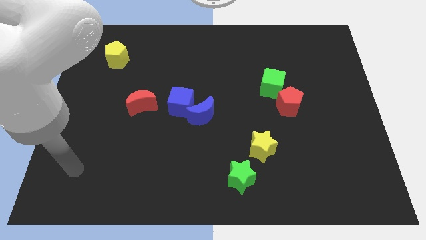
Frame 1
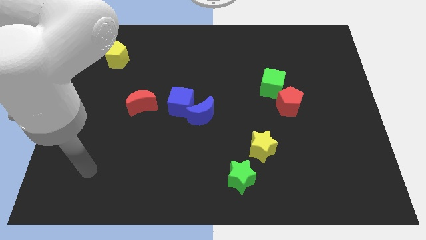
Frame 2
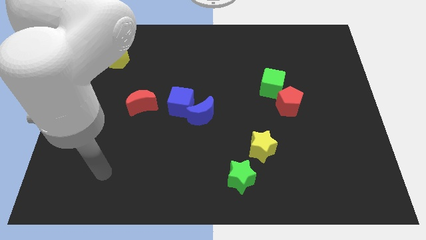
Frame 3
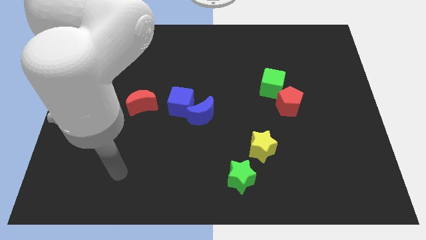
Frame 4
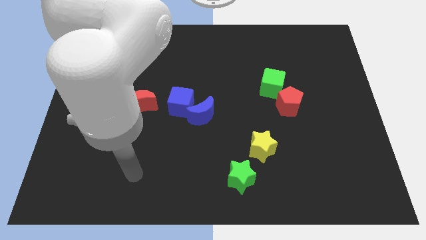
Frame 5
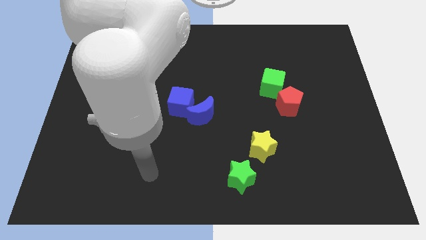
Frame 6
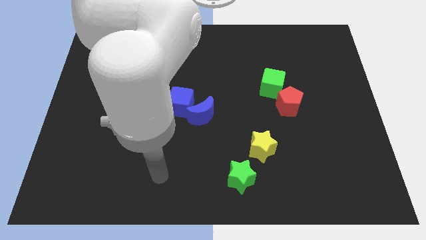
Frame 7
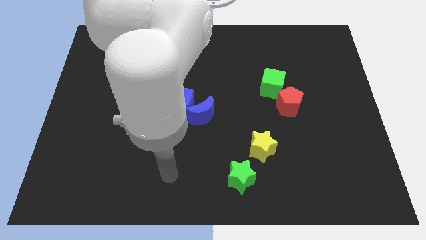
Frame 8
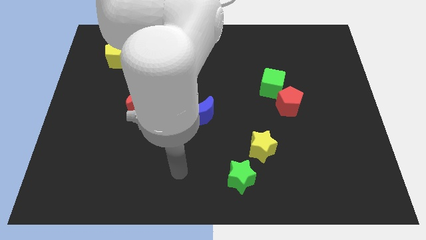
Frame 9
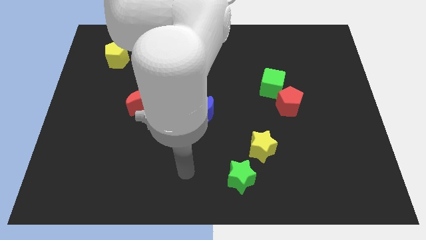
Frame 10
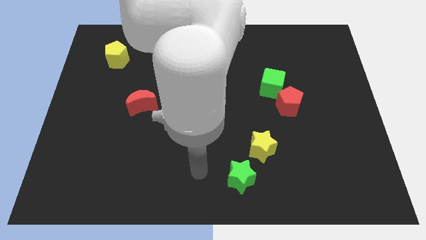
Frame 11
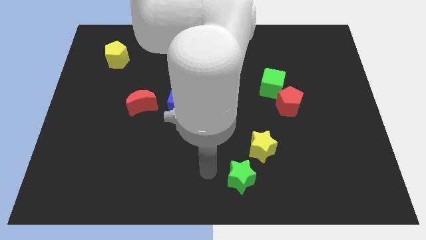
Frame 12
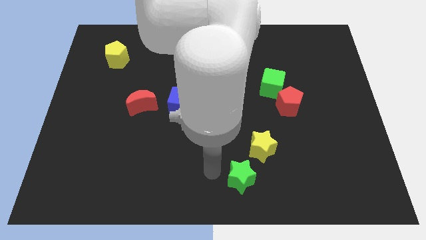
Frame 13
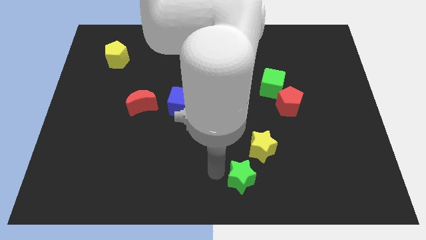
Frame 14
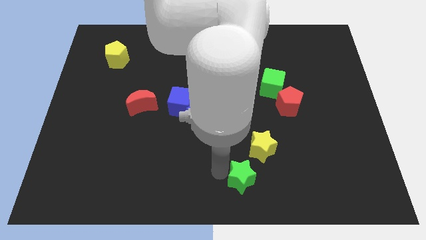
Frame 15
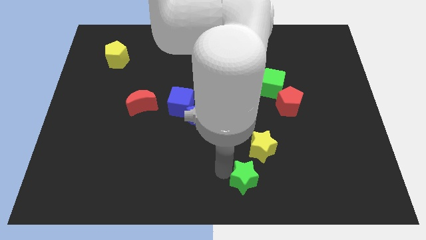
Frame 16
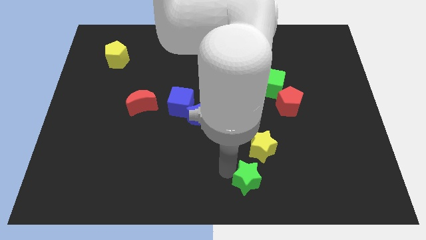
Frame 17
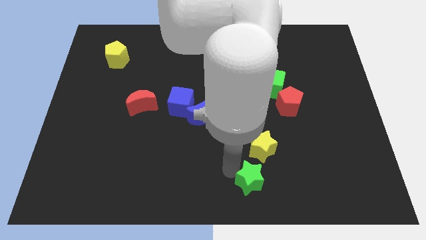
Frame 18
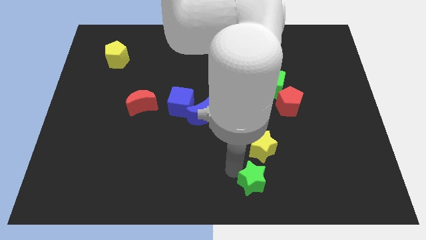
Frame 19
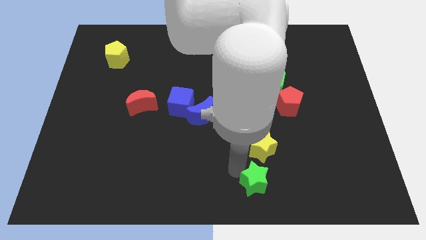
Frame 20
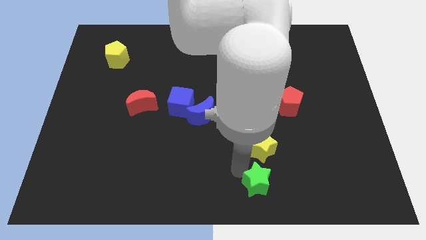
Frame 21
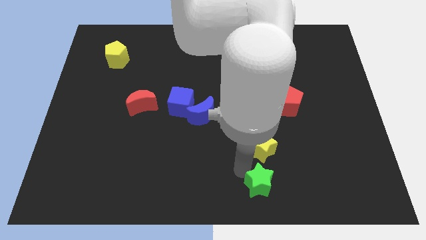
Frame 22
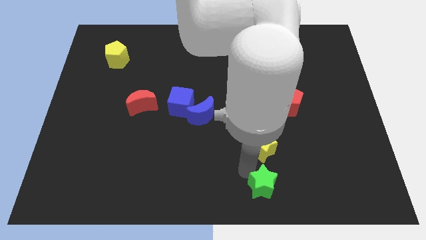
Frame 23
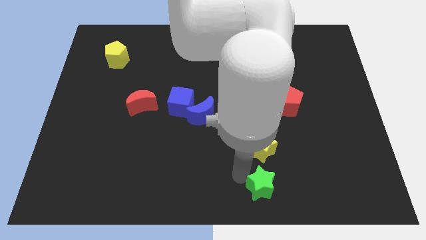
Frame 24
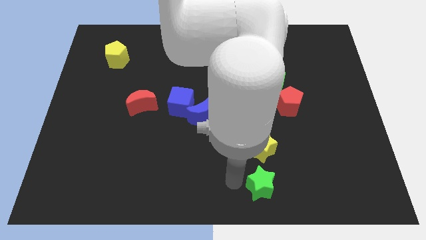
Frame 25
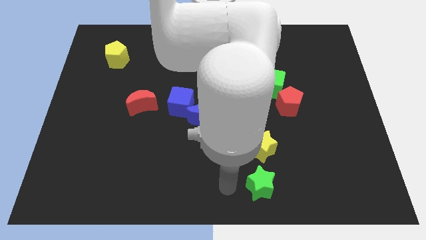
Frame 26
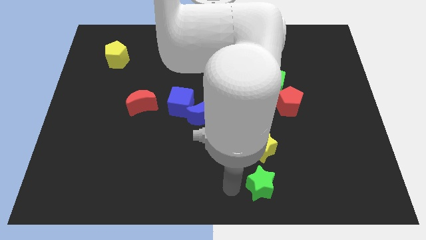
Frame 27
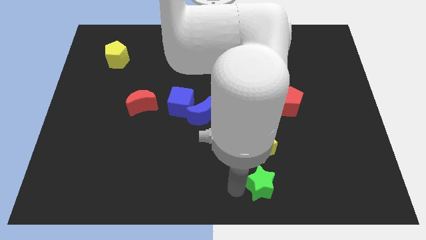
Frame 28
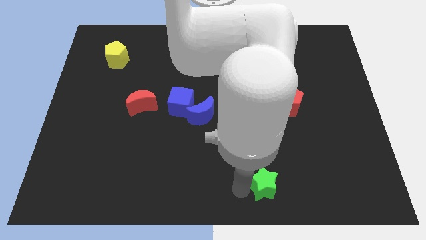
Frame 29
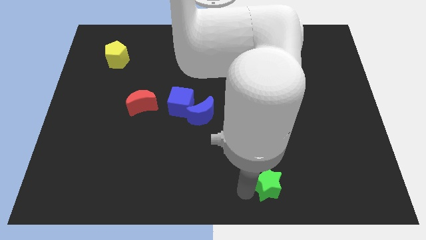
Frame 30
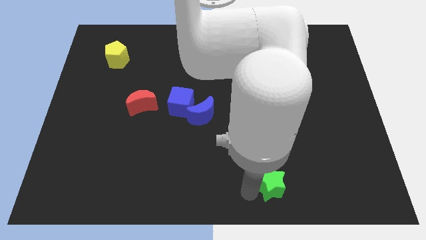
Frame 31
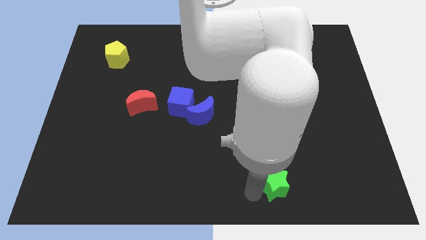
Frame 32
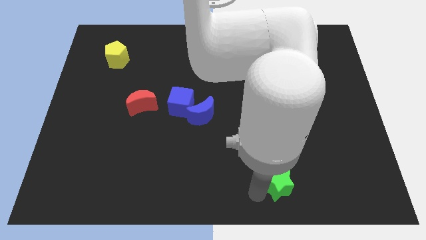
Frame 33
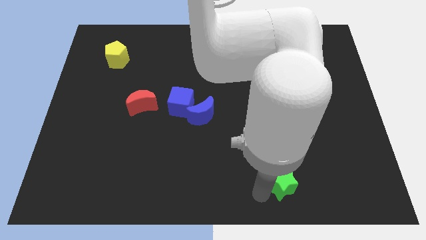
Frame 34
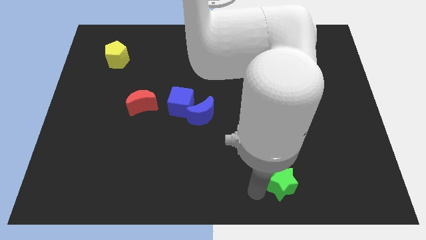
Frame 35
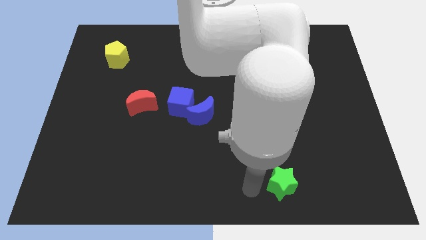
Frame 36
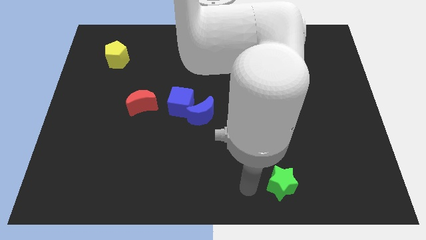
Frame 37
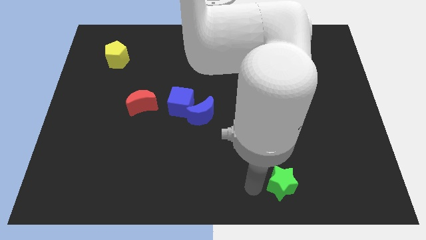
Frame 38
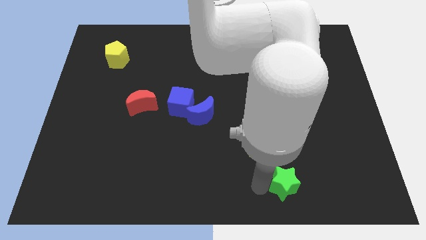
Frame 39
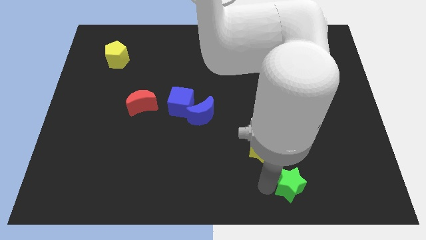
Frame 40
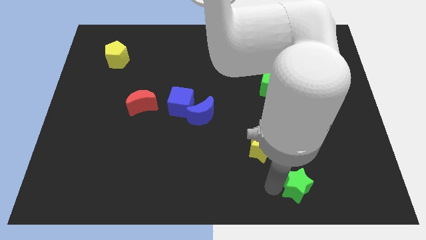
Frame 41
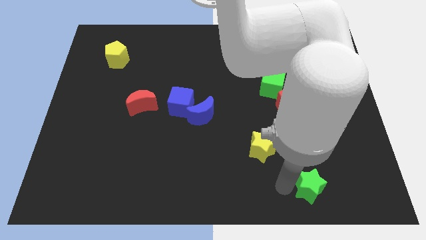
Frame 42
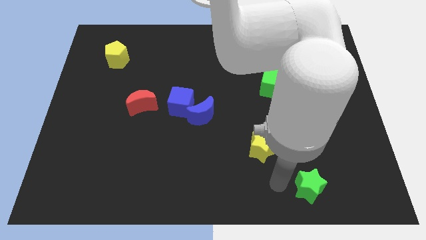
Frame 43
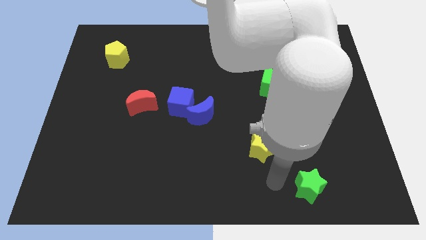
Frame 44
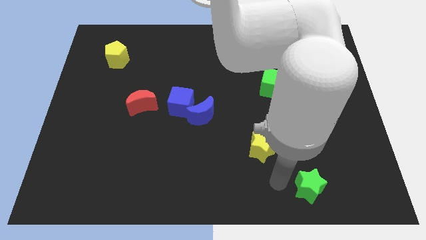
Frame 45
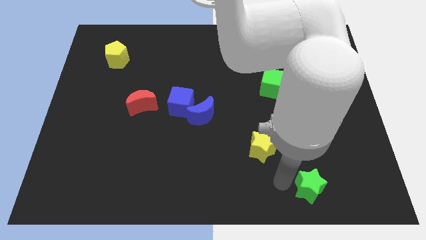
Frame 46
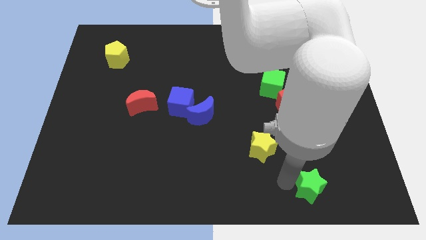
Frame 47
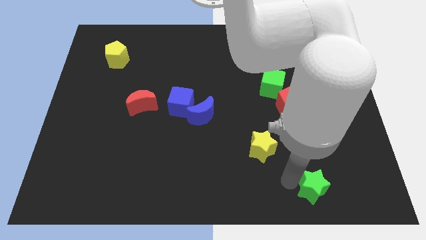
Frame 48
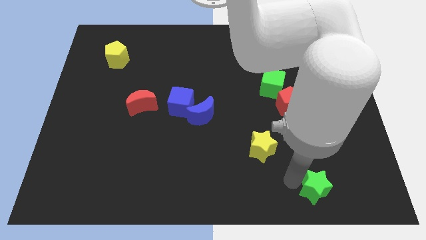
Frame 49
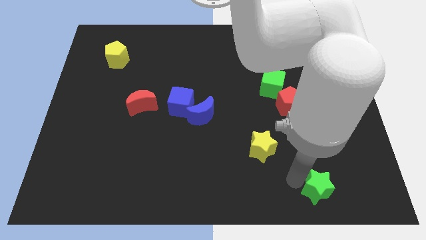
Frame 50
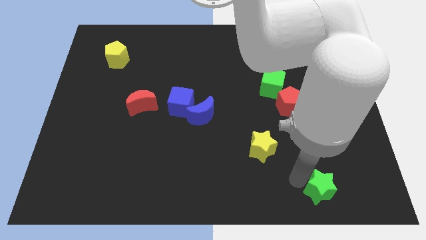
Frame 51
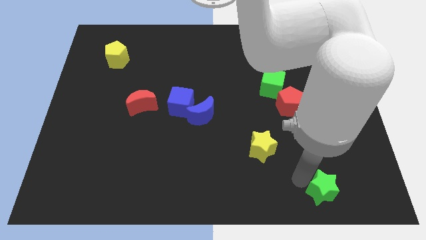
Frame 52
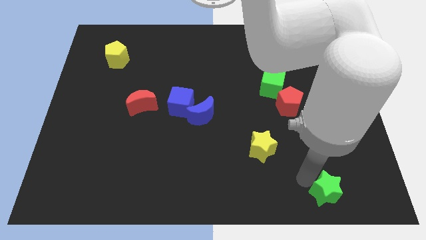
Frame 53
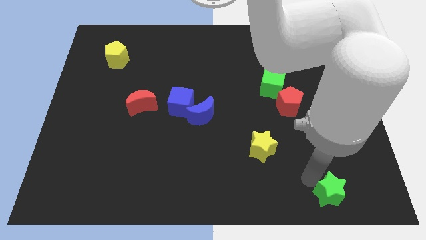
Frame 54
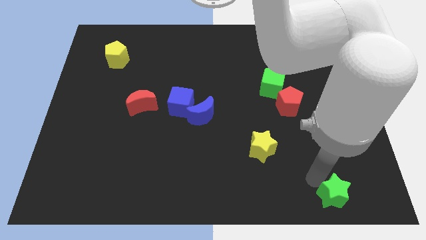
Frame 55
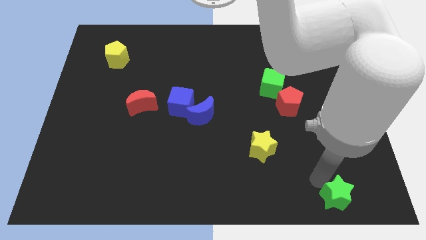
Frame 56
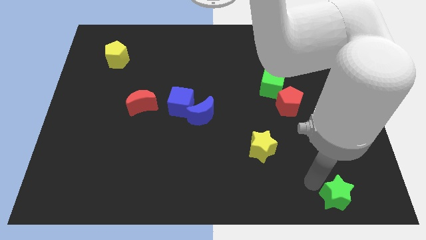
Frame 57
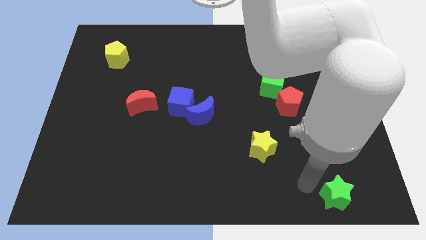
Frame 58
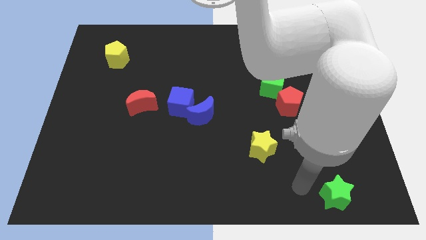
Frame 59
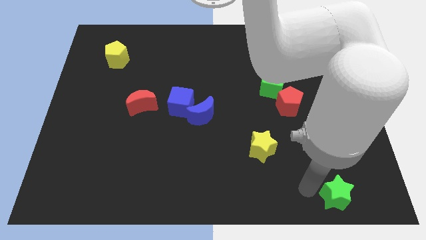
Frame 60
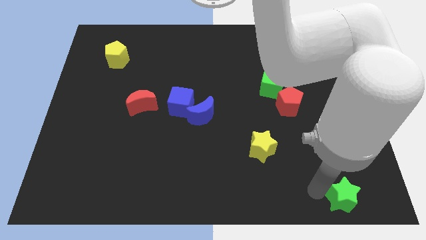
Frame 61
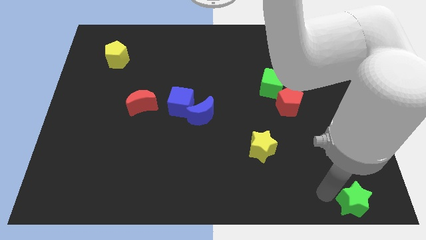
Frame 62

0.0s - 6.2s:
push the green star to the bottom right of the board
